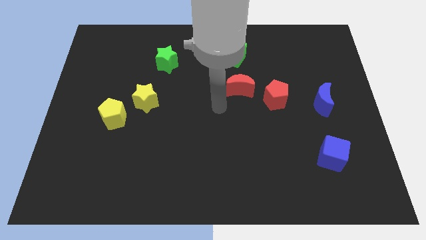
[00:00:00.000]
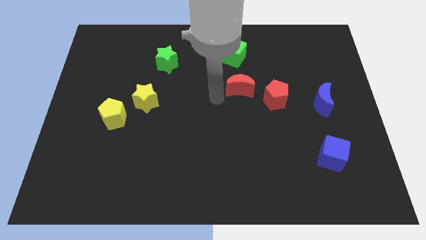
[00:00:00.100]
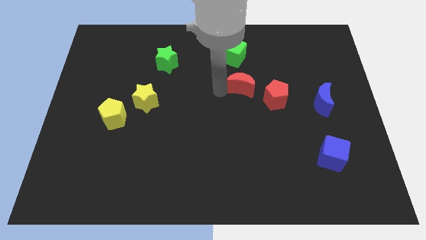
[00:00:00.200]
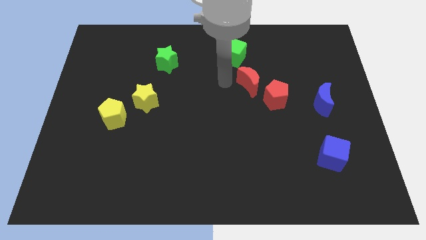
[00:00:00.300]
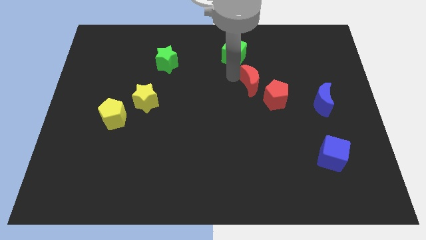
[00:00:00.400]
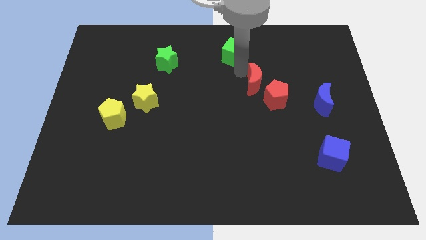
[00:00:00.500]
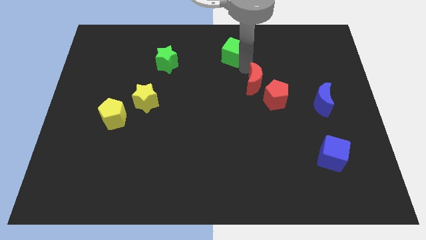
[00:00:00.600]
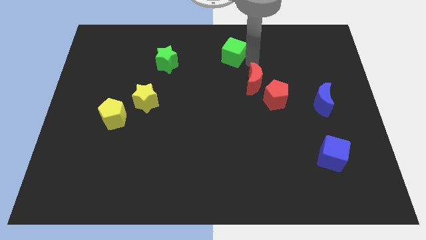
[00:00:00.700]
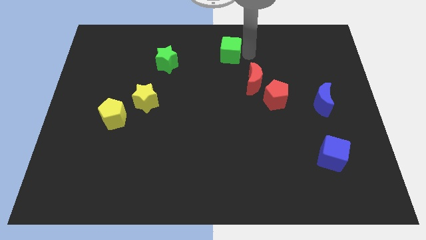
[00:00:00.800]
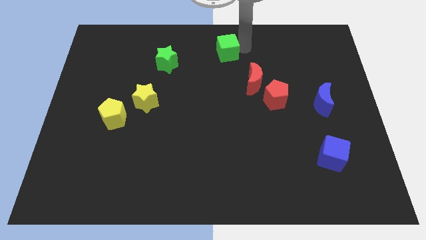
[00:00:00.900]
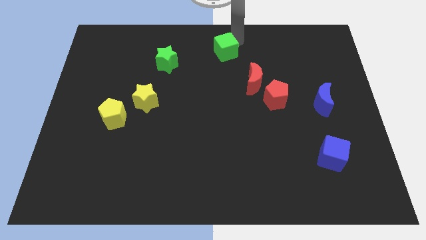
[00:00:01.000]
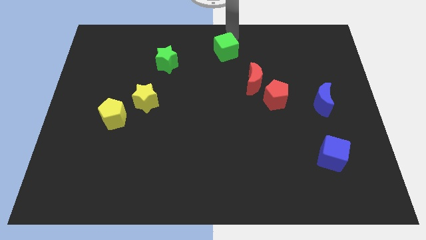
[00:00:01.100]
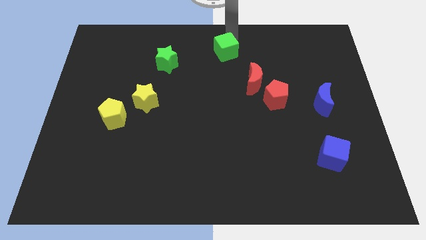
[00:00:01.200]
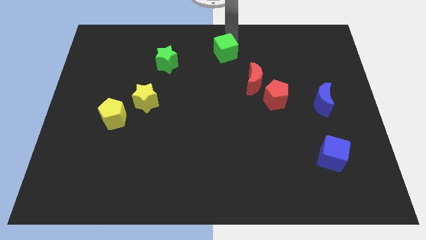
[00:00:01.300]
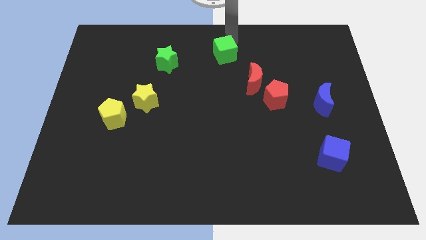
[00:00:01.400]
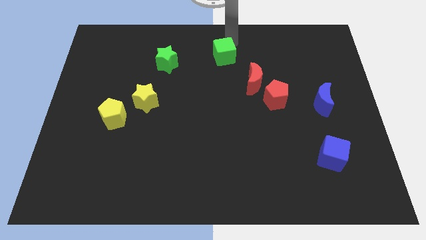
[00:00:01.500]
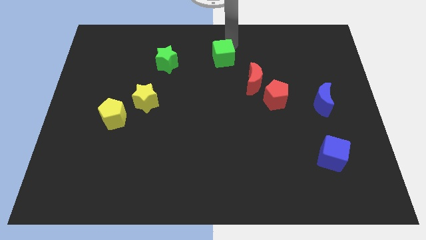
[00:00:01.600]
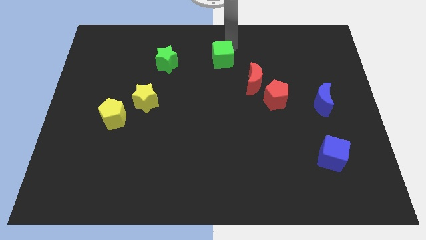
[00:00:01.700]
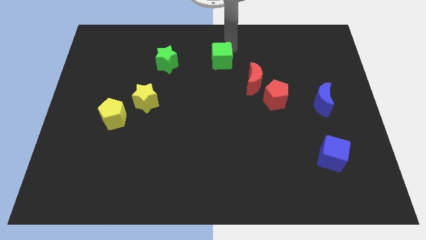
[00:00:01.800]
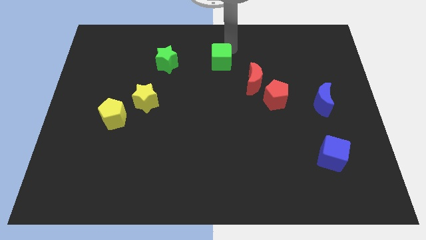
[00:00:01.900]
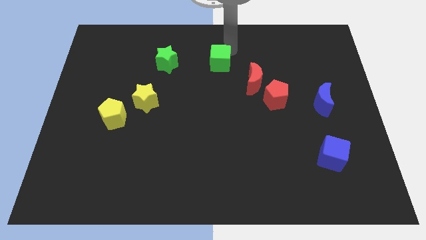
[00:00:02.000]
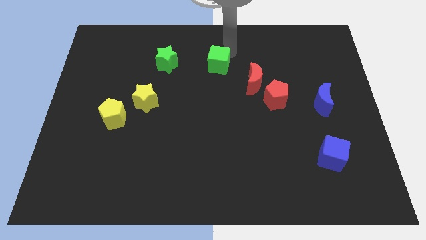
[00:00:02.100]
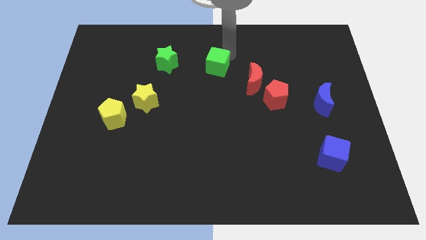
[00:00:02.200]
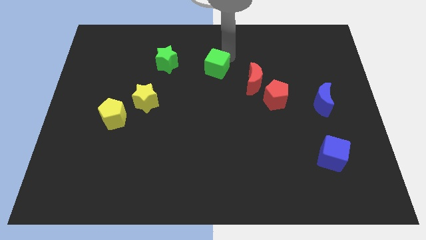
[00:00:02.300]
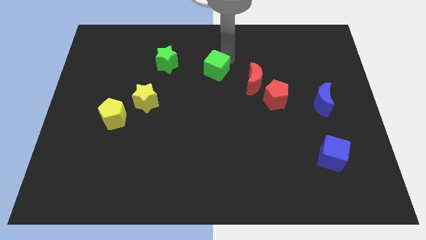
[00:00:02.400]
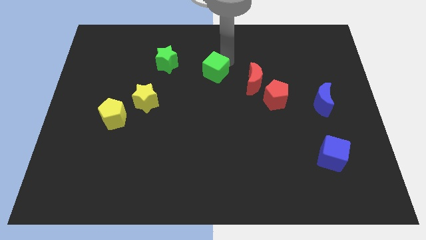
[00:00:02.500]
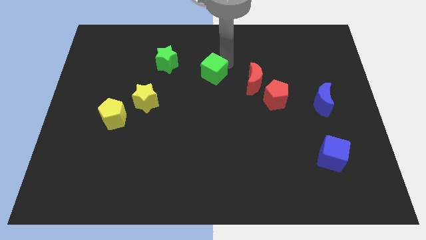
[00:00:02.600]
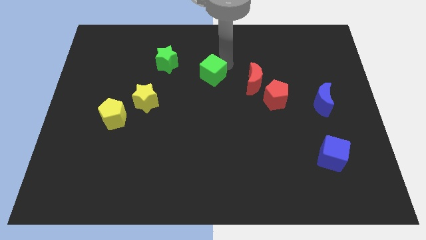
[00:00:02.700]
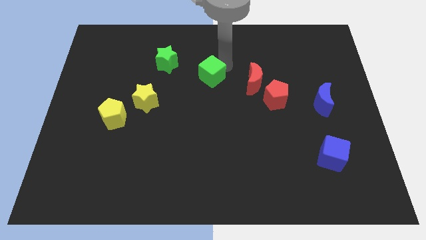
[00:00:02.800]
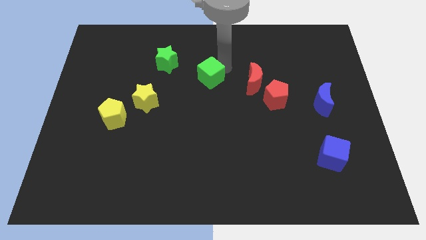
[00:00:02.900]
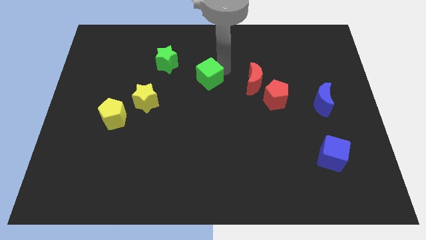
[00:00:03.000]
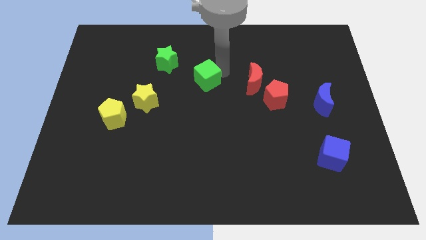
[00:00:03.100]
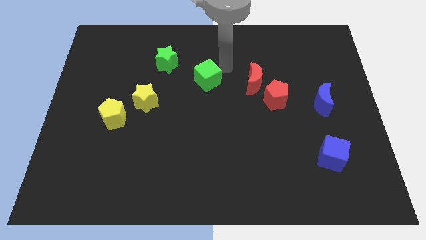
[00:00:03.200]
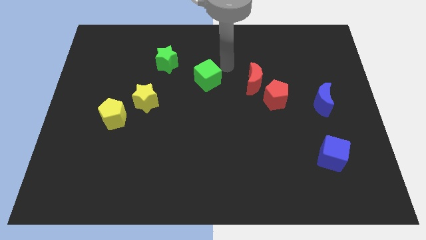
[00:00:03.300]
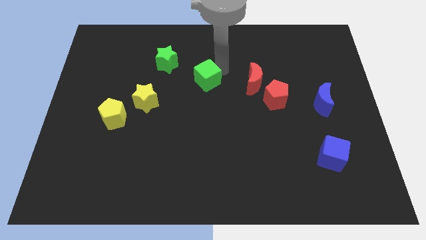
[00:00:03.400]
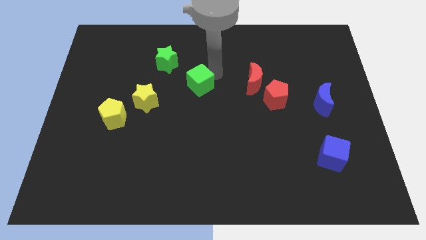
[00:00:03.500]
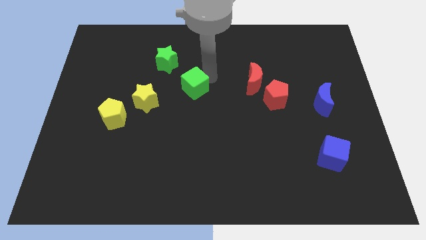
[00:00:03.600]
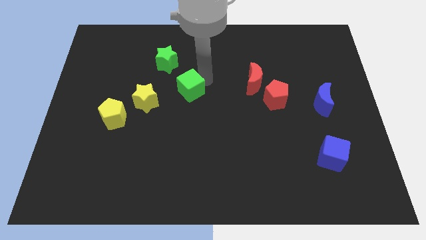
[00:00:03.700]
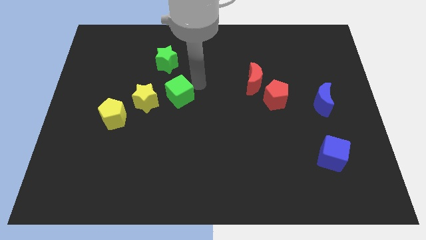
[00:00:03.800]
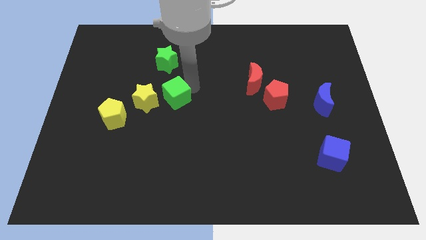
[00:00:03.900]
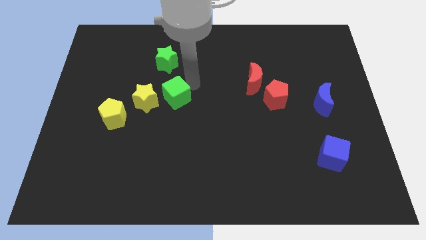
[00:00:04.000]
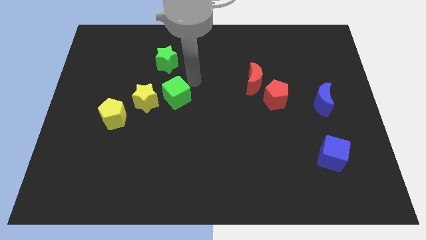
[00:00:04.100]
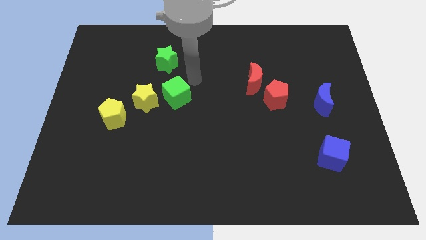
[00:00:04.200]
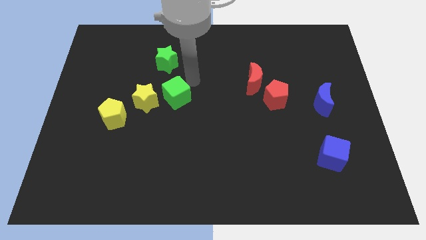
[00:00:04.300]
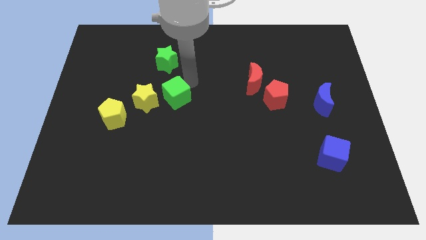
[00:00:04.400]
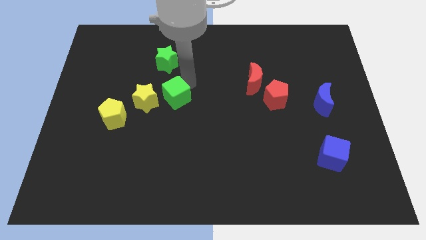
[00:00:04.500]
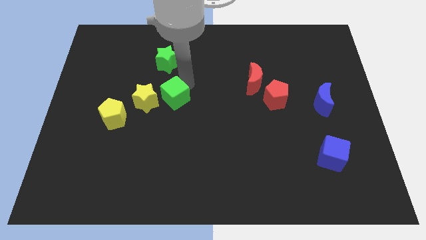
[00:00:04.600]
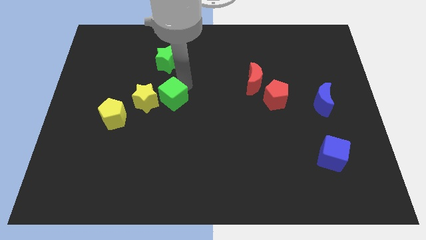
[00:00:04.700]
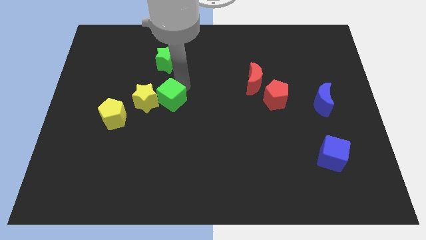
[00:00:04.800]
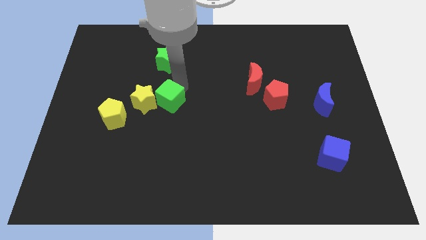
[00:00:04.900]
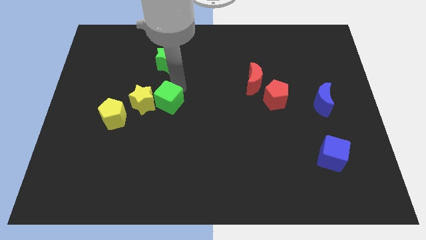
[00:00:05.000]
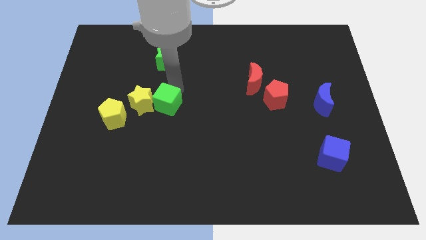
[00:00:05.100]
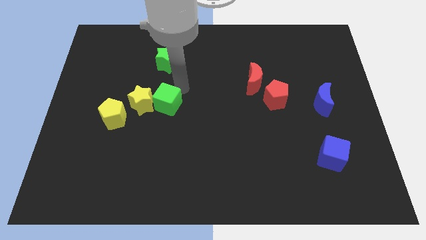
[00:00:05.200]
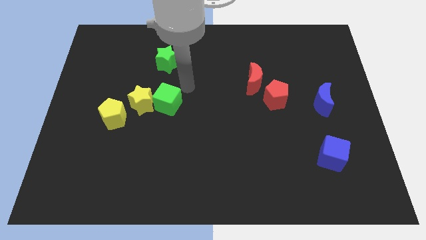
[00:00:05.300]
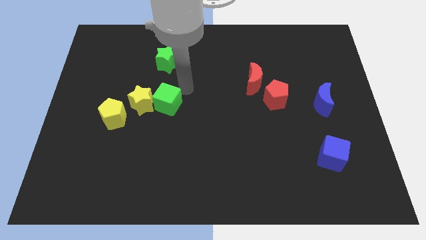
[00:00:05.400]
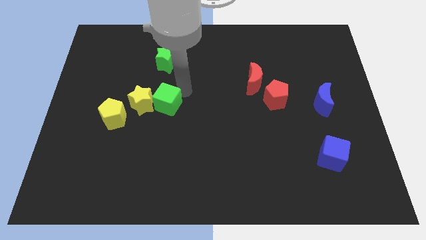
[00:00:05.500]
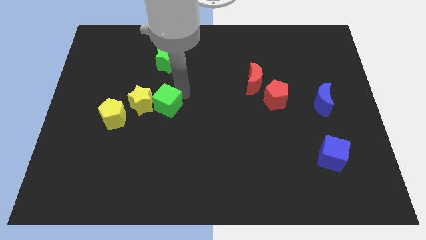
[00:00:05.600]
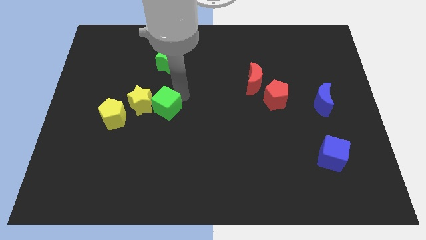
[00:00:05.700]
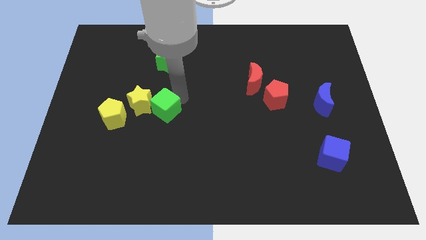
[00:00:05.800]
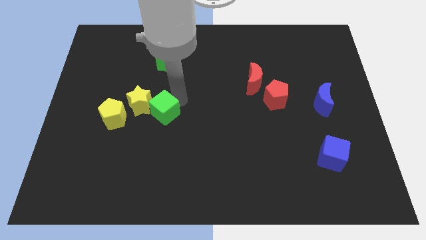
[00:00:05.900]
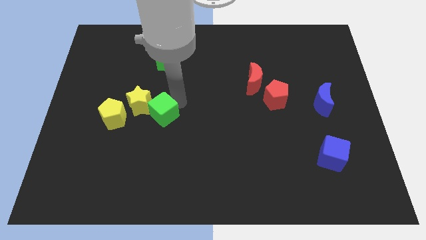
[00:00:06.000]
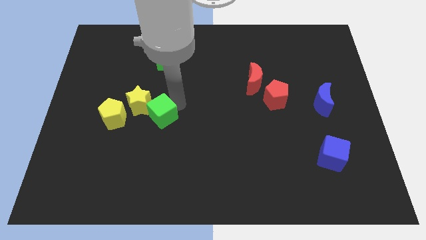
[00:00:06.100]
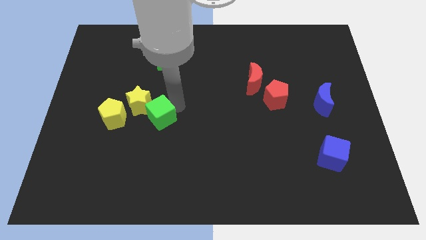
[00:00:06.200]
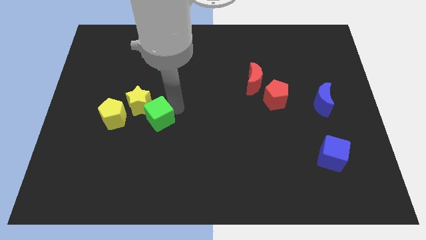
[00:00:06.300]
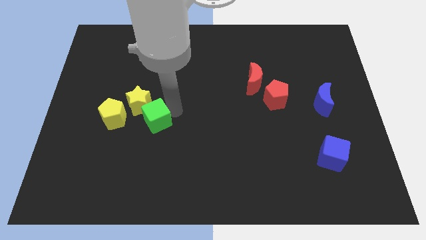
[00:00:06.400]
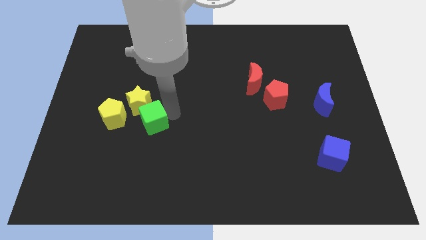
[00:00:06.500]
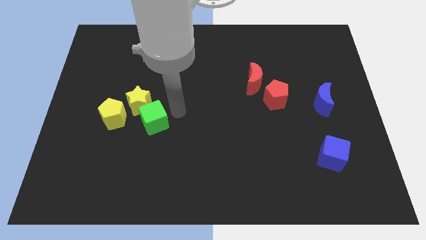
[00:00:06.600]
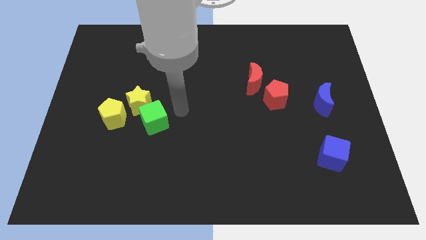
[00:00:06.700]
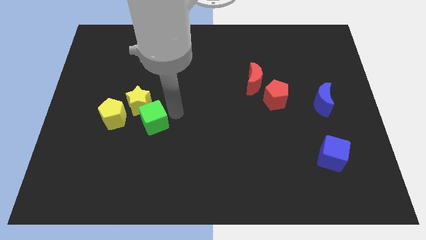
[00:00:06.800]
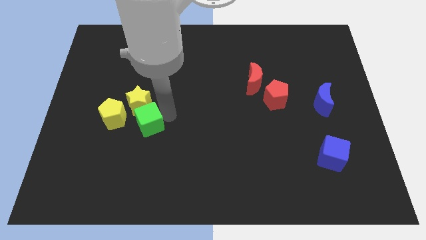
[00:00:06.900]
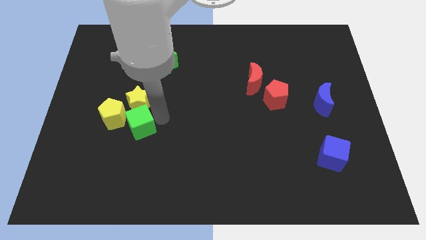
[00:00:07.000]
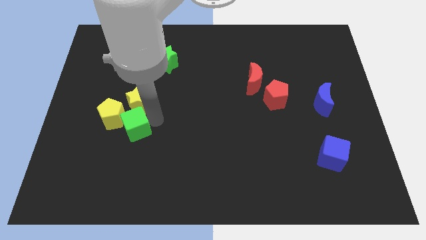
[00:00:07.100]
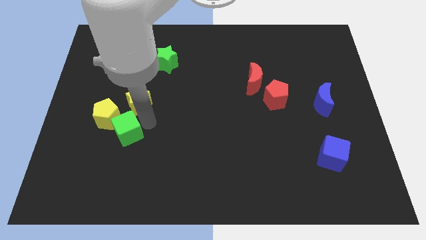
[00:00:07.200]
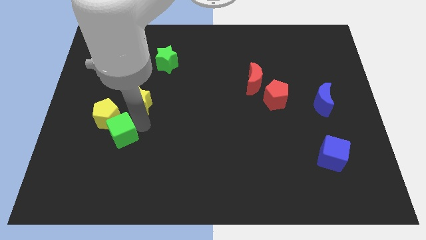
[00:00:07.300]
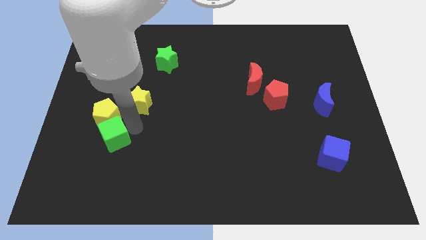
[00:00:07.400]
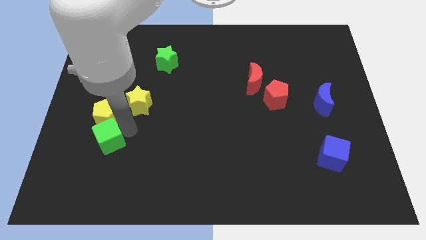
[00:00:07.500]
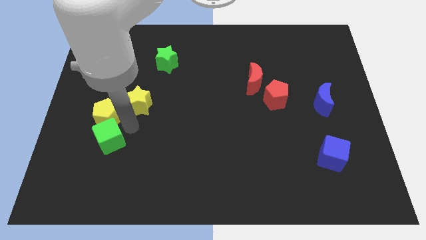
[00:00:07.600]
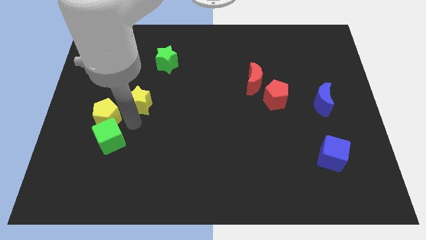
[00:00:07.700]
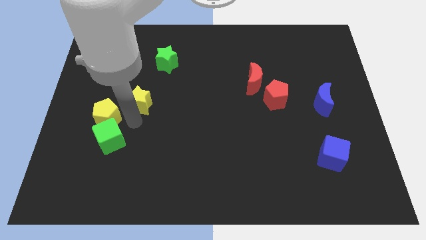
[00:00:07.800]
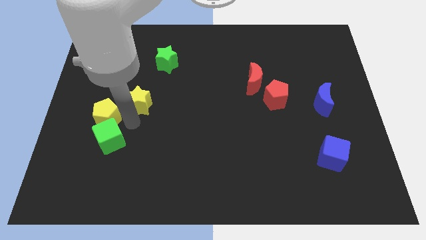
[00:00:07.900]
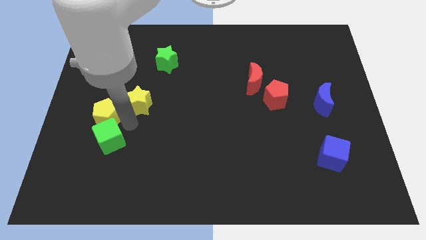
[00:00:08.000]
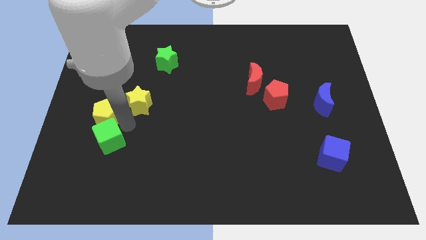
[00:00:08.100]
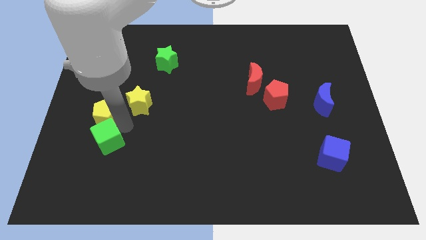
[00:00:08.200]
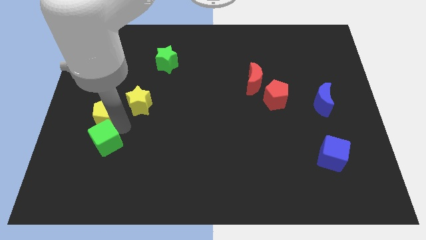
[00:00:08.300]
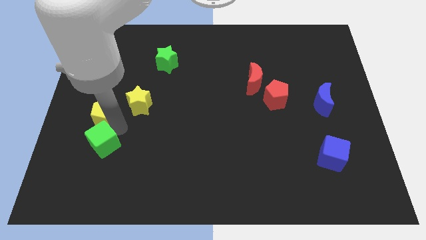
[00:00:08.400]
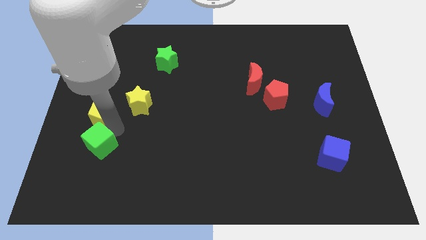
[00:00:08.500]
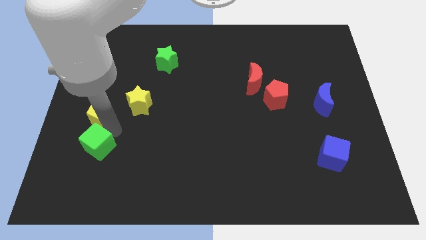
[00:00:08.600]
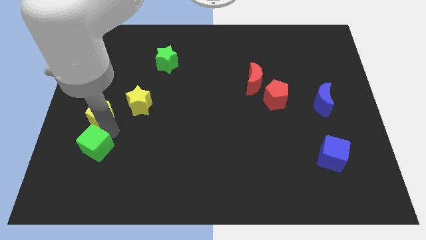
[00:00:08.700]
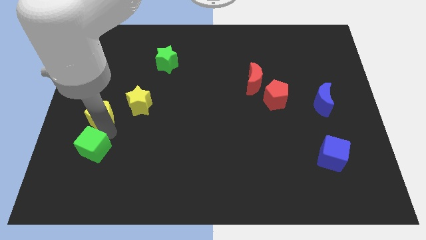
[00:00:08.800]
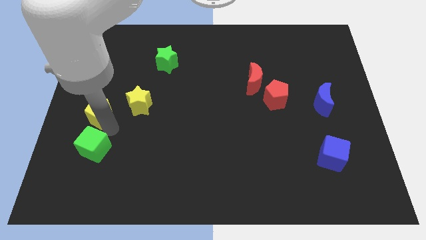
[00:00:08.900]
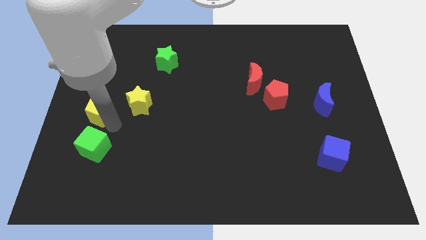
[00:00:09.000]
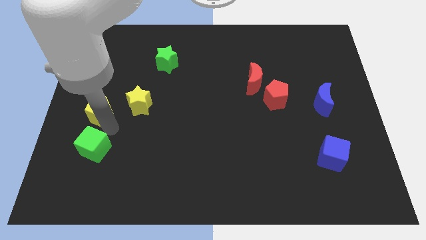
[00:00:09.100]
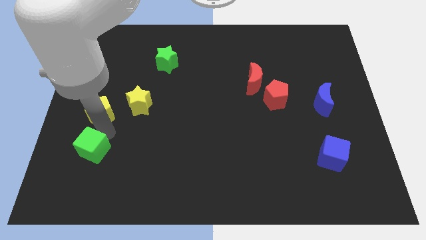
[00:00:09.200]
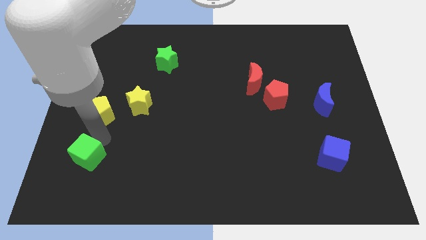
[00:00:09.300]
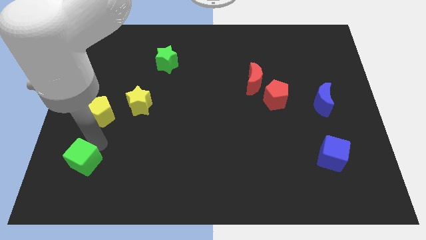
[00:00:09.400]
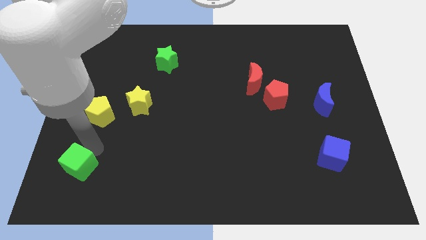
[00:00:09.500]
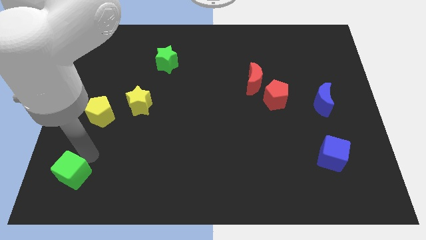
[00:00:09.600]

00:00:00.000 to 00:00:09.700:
put the green cube to the bottom left corner
